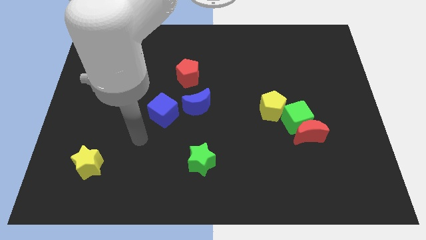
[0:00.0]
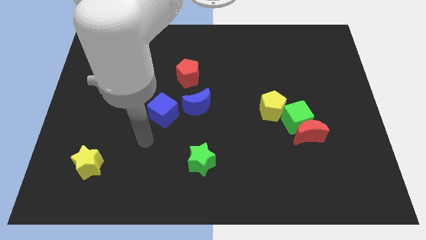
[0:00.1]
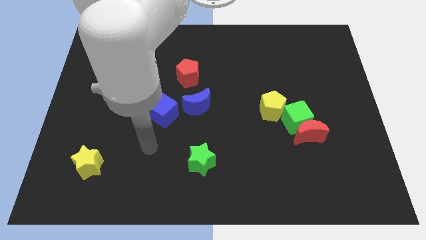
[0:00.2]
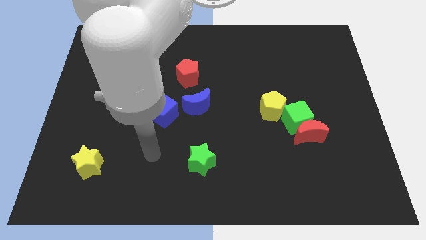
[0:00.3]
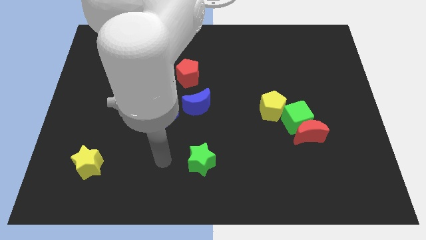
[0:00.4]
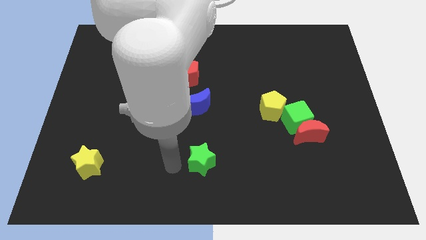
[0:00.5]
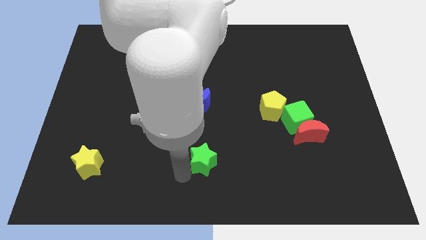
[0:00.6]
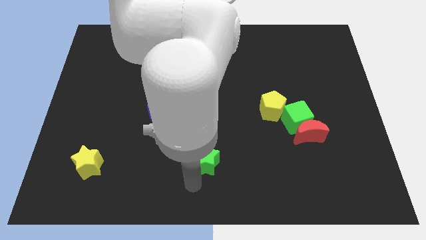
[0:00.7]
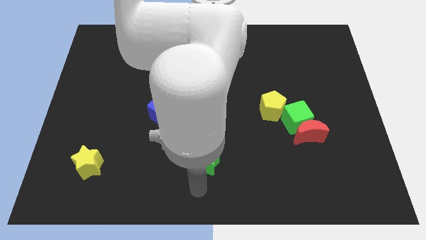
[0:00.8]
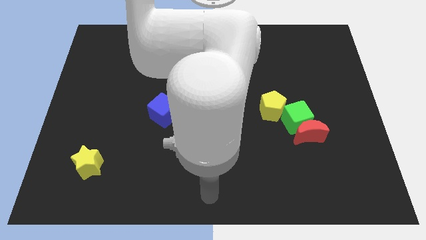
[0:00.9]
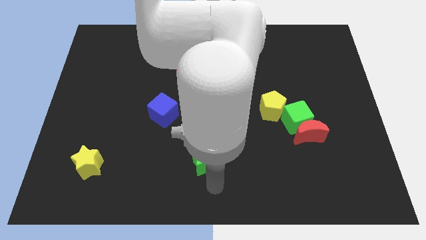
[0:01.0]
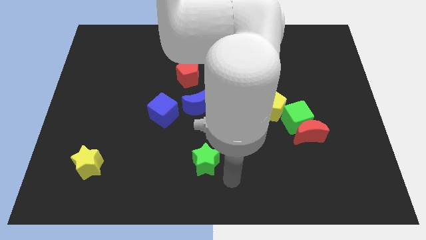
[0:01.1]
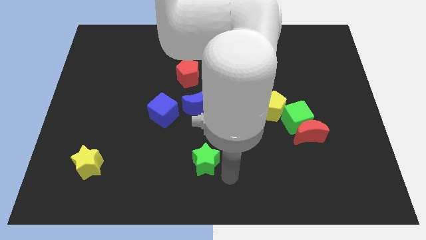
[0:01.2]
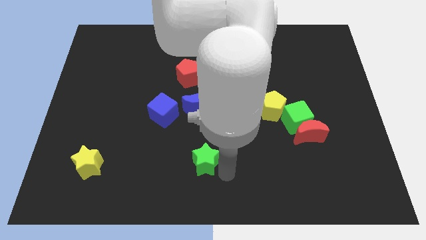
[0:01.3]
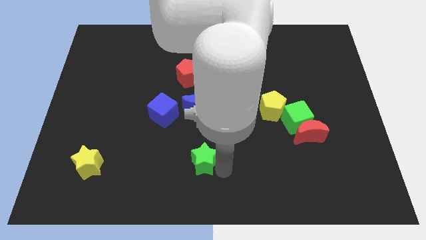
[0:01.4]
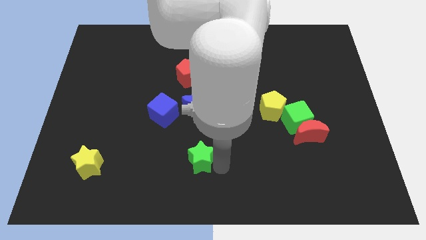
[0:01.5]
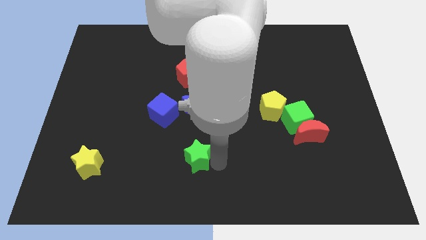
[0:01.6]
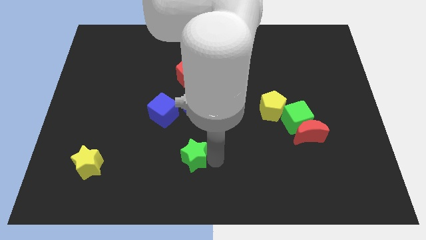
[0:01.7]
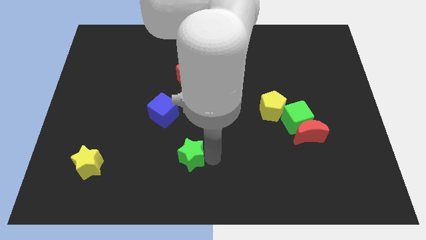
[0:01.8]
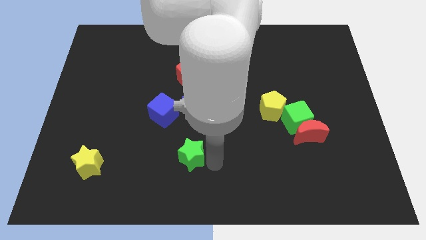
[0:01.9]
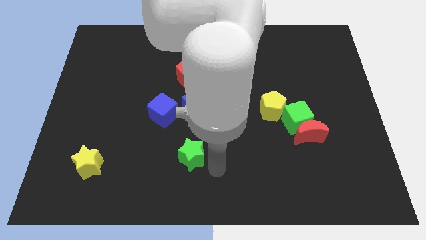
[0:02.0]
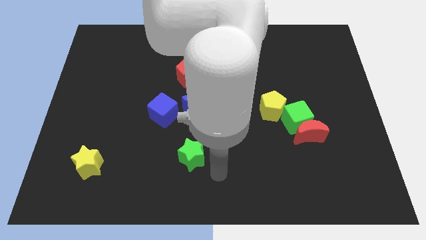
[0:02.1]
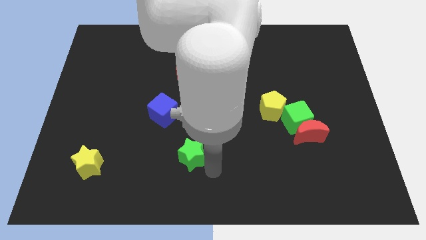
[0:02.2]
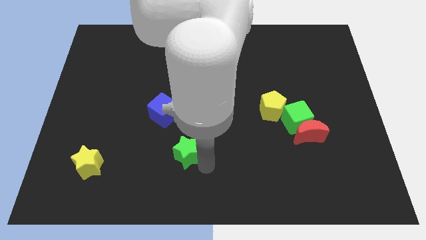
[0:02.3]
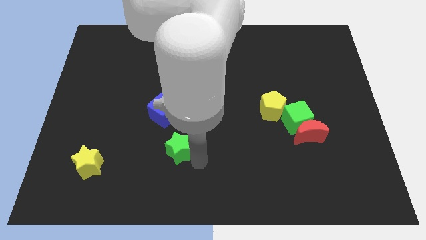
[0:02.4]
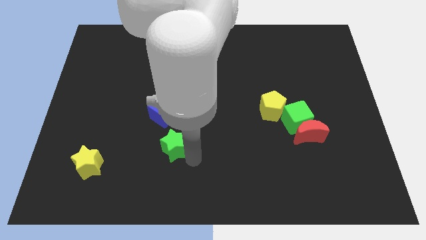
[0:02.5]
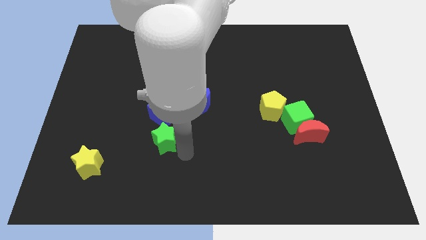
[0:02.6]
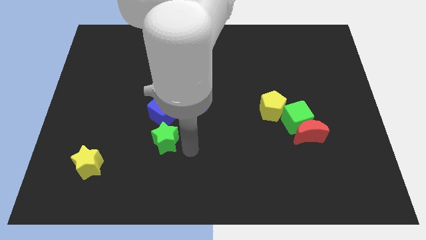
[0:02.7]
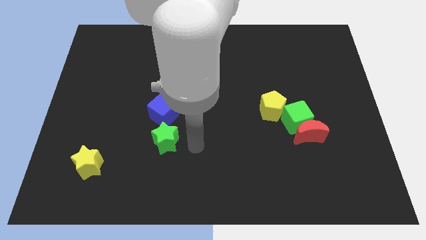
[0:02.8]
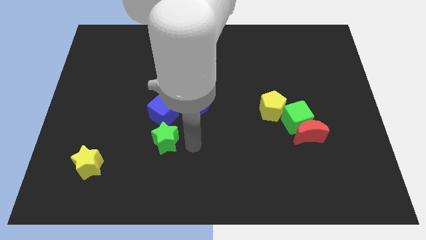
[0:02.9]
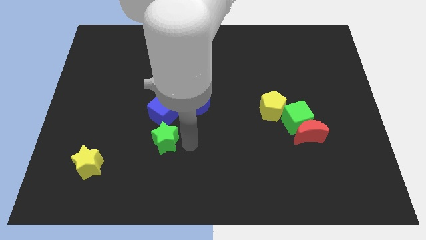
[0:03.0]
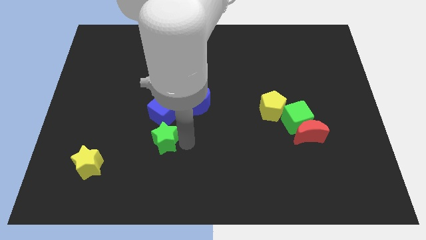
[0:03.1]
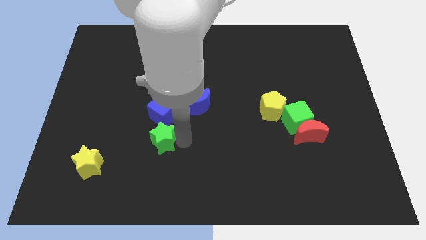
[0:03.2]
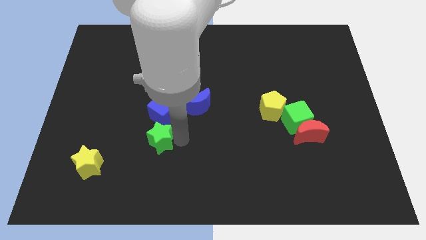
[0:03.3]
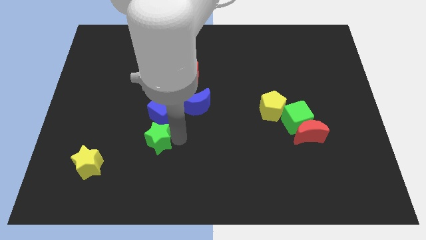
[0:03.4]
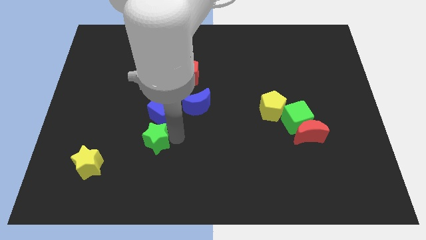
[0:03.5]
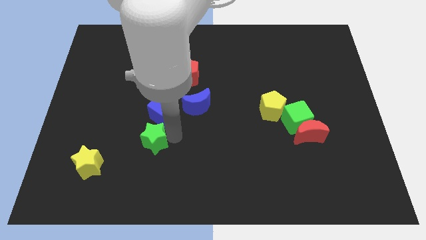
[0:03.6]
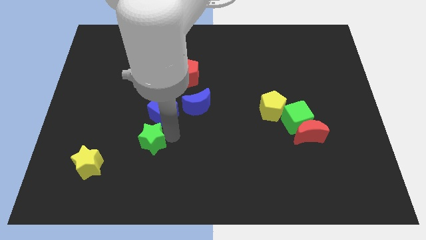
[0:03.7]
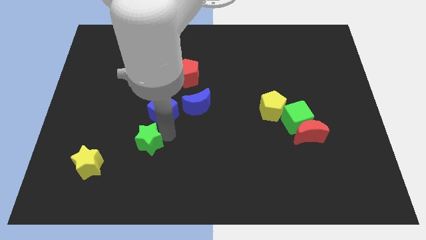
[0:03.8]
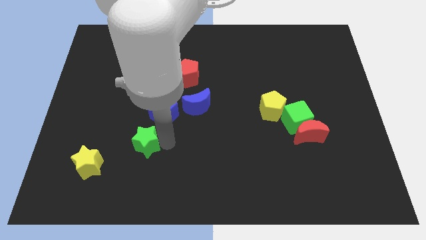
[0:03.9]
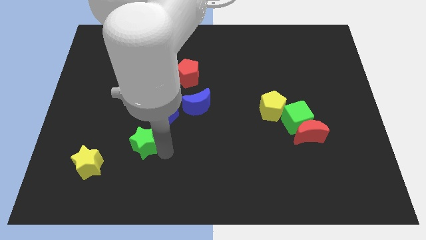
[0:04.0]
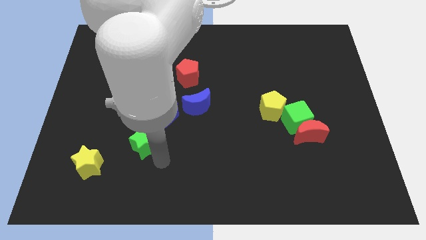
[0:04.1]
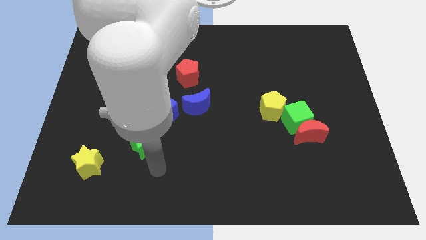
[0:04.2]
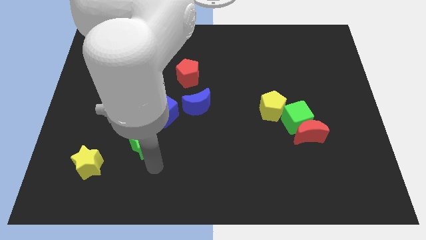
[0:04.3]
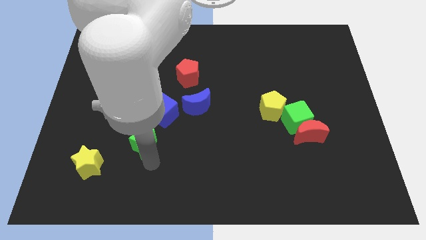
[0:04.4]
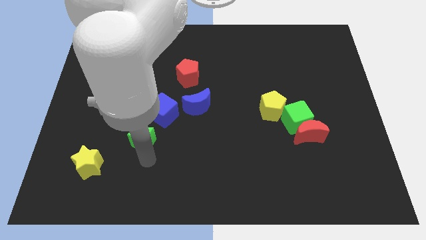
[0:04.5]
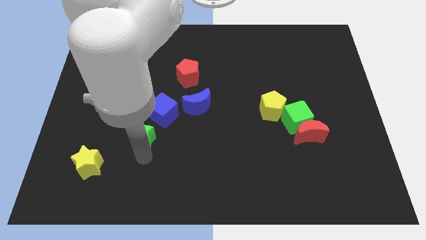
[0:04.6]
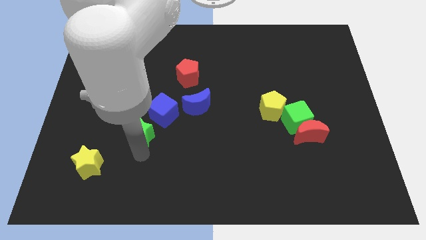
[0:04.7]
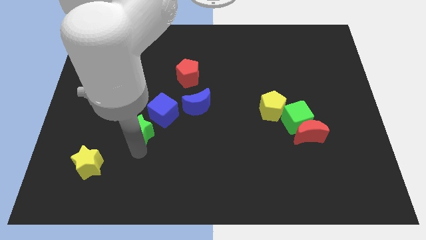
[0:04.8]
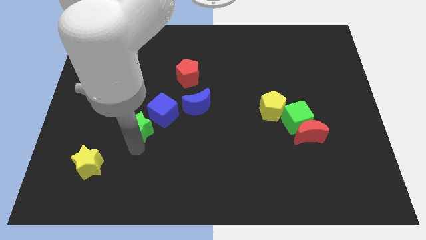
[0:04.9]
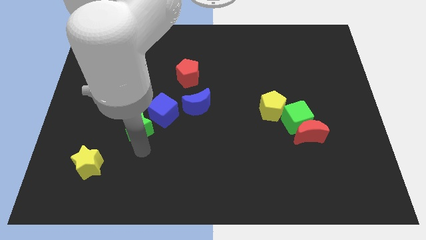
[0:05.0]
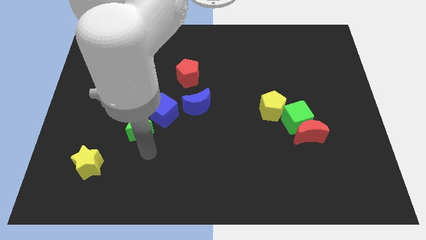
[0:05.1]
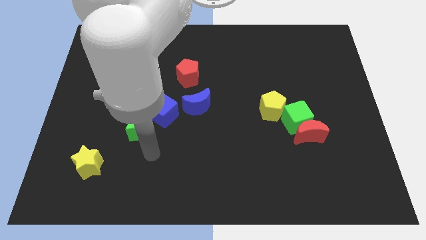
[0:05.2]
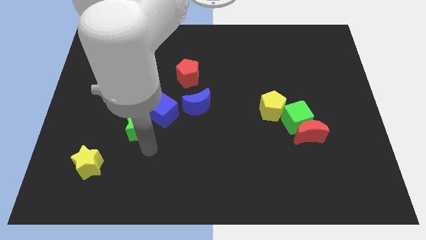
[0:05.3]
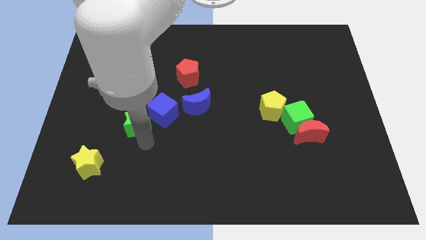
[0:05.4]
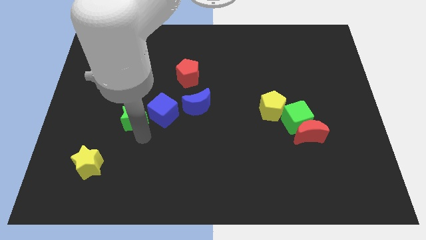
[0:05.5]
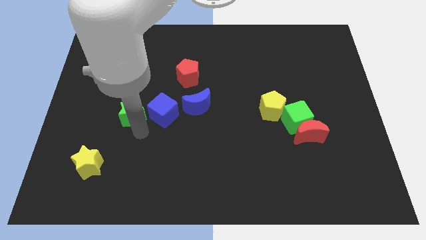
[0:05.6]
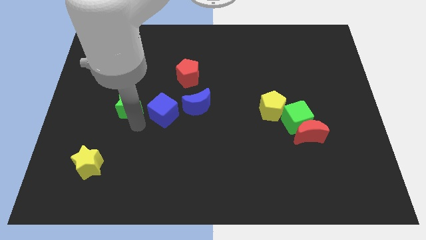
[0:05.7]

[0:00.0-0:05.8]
slide the green star up and left

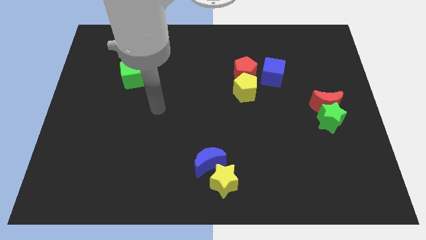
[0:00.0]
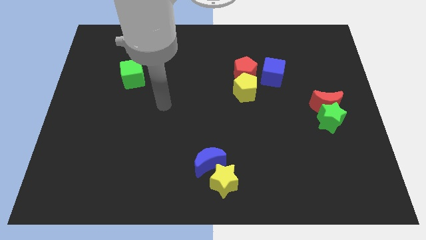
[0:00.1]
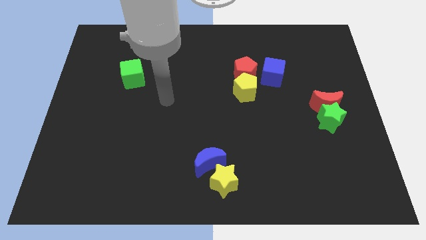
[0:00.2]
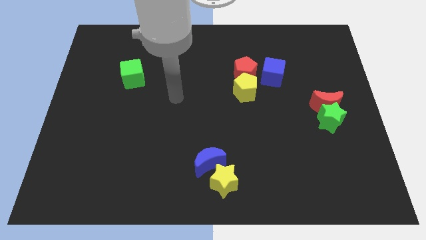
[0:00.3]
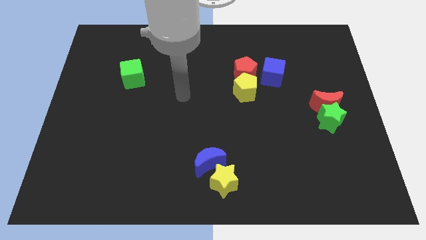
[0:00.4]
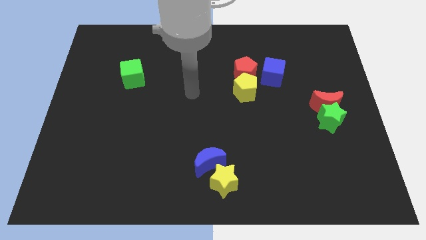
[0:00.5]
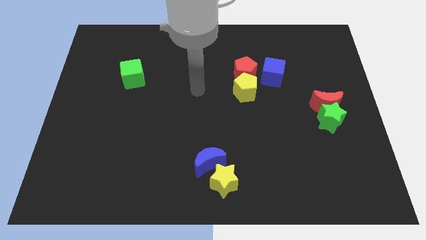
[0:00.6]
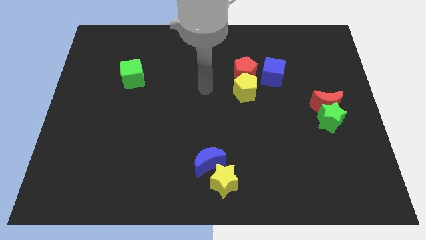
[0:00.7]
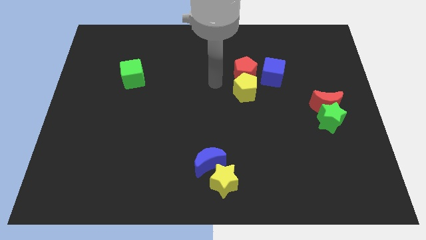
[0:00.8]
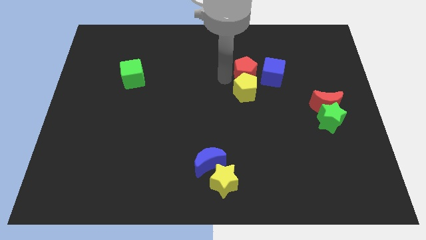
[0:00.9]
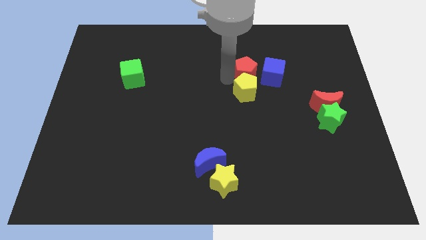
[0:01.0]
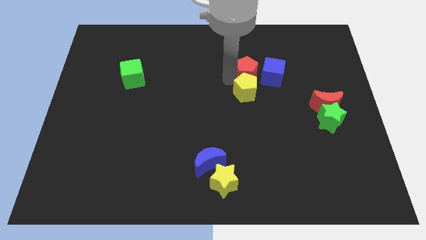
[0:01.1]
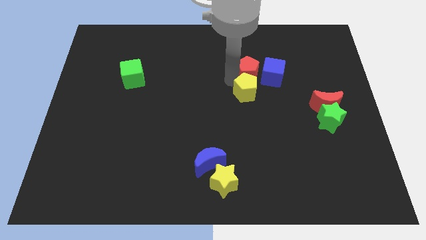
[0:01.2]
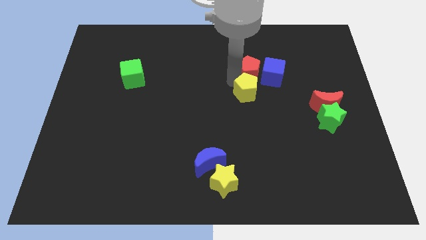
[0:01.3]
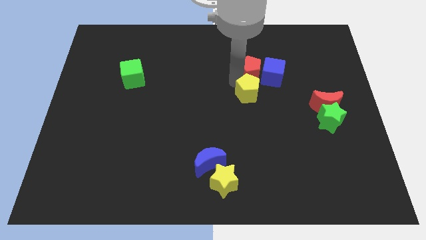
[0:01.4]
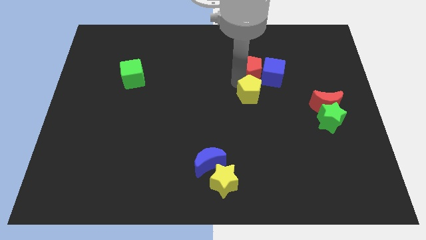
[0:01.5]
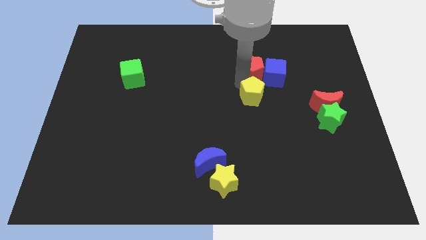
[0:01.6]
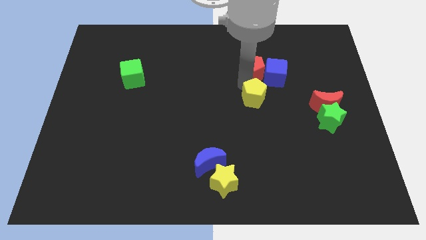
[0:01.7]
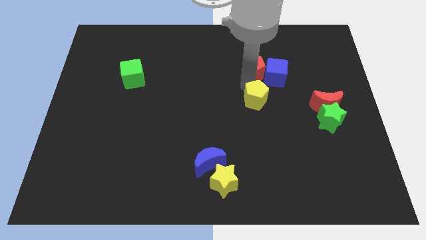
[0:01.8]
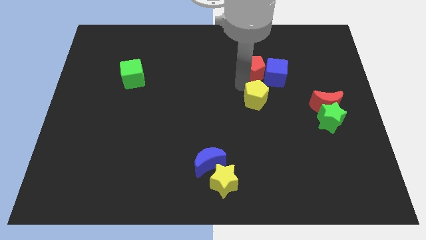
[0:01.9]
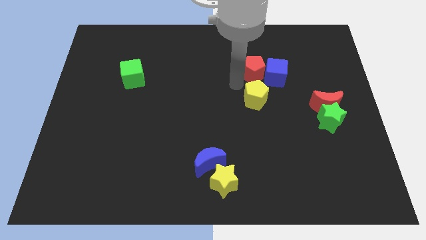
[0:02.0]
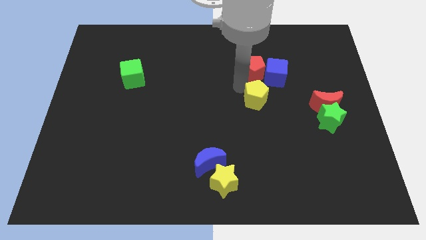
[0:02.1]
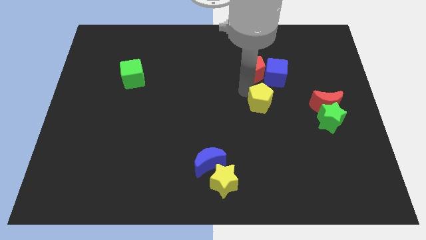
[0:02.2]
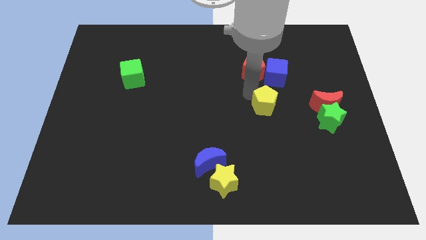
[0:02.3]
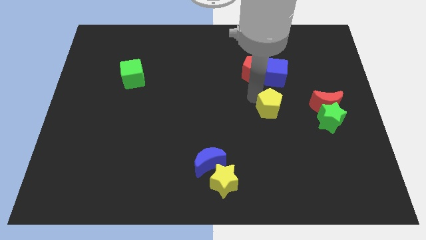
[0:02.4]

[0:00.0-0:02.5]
push the yellow pentagon a little downwards and then right
